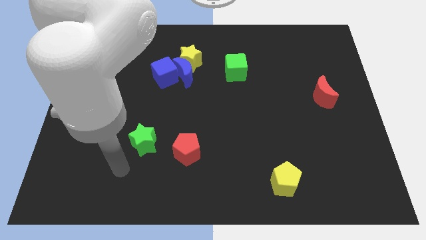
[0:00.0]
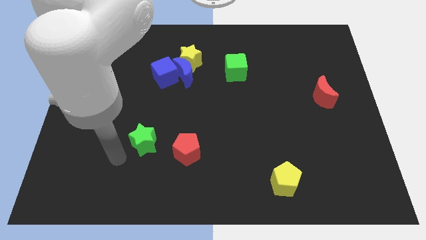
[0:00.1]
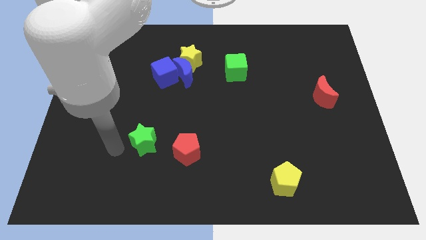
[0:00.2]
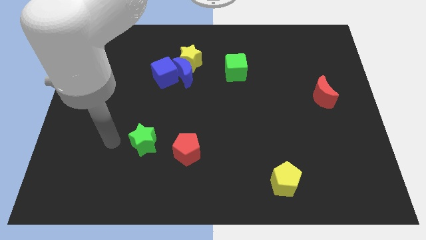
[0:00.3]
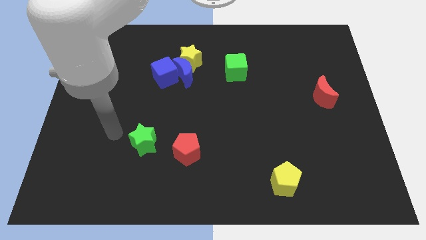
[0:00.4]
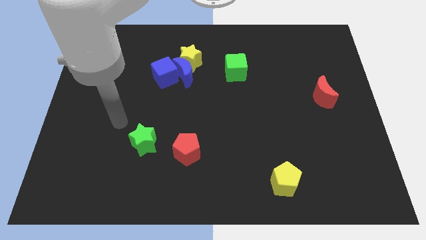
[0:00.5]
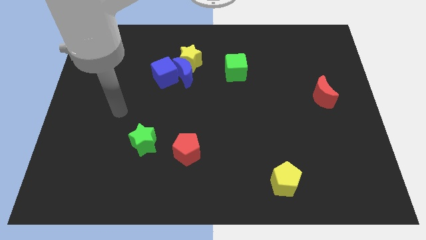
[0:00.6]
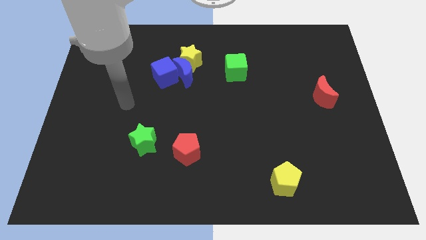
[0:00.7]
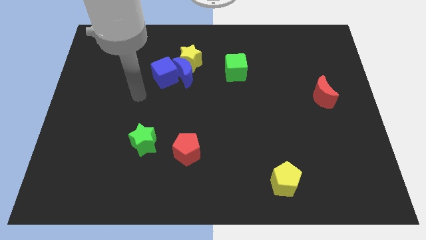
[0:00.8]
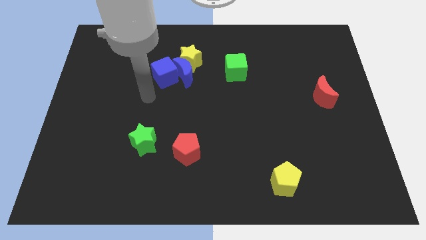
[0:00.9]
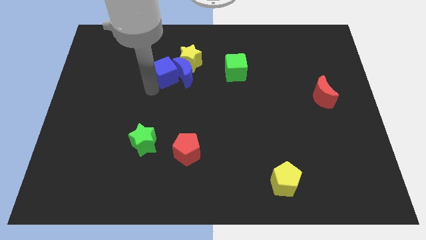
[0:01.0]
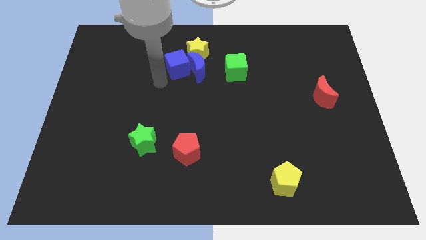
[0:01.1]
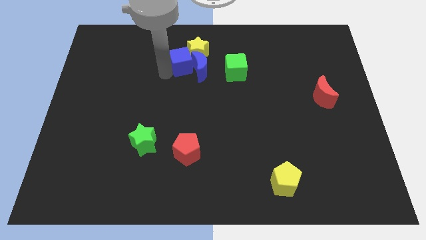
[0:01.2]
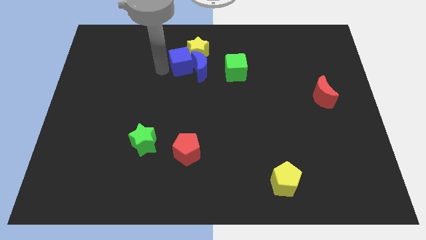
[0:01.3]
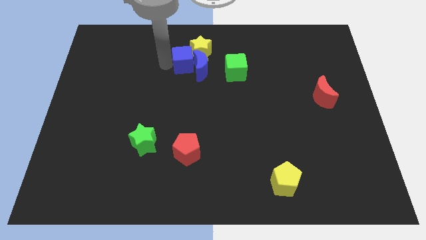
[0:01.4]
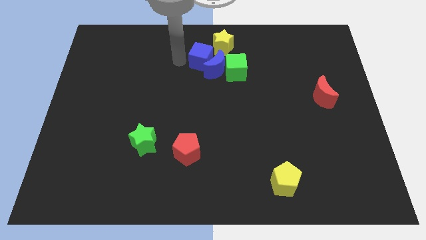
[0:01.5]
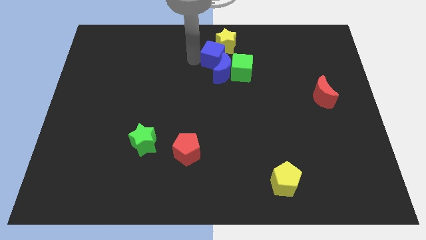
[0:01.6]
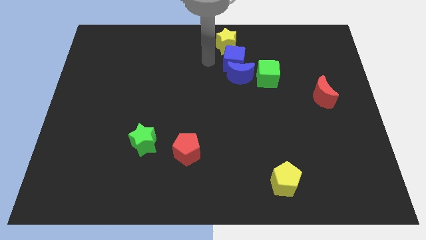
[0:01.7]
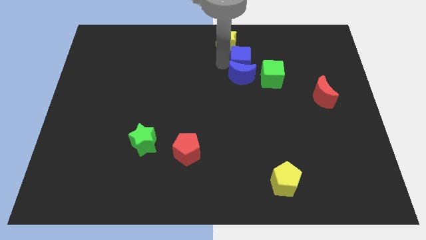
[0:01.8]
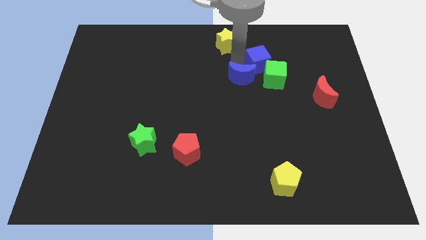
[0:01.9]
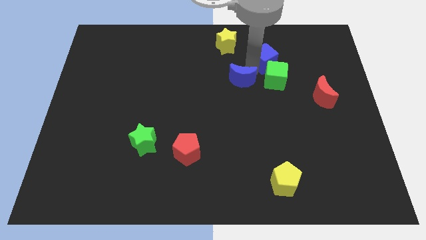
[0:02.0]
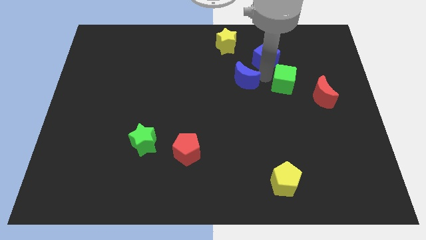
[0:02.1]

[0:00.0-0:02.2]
move the blue moon away from the blue cube and yellow star

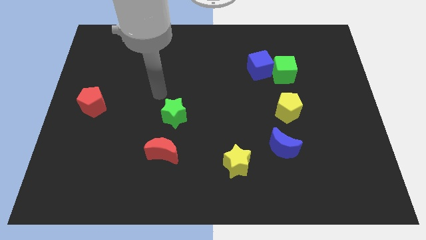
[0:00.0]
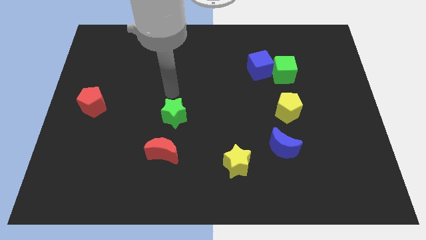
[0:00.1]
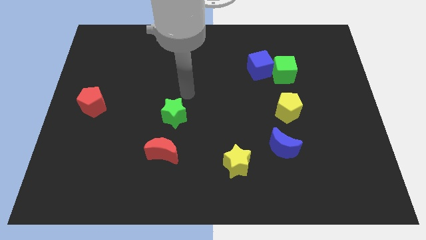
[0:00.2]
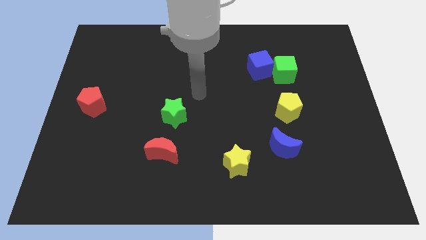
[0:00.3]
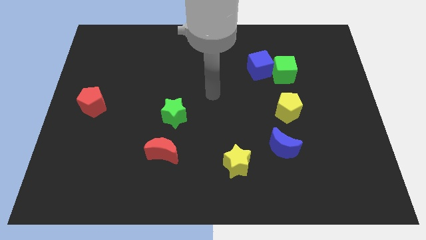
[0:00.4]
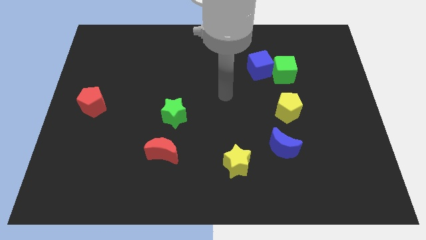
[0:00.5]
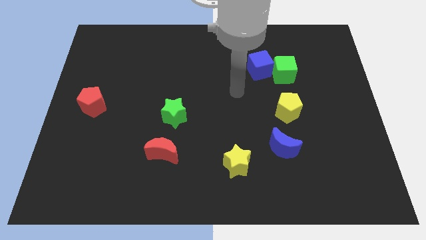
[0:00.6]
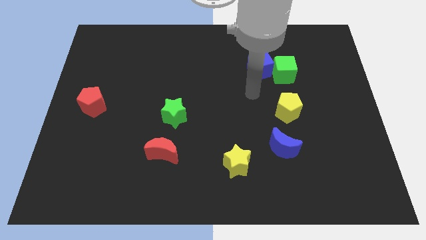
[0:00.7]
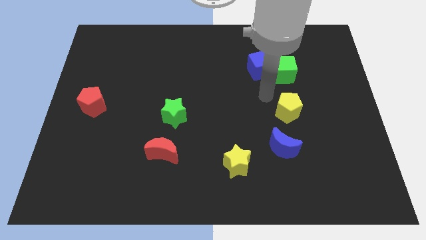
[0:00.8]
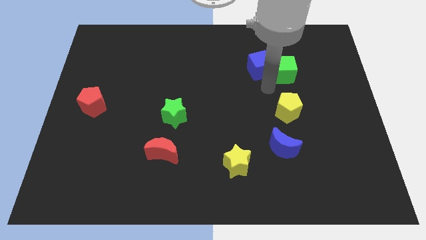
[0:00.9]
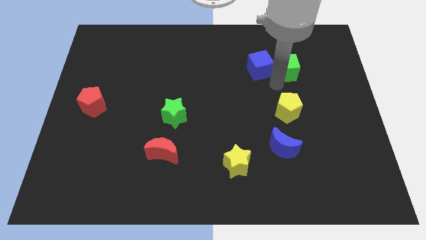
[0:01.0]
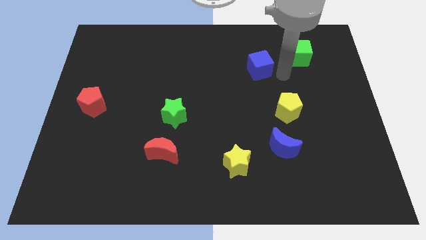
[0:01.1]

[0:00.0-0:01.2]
pull the blue cube apart from the green cube

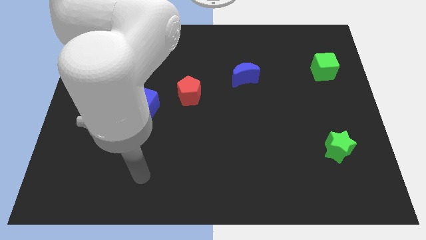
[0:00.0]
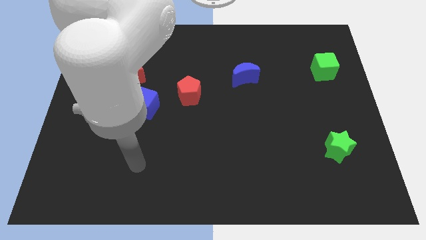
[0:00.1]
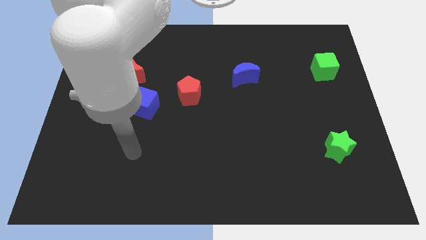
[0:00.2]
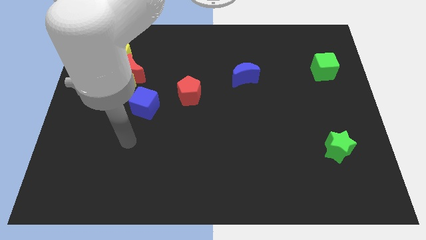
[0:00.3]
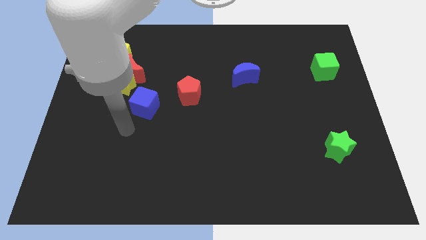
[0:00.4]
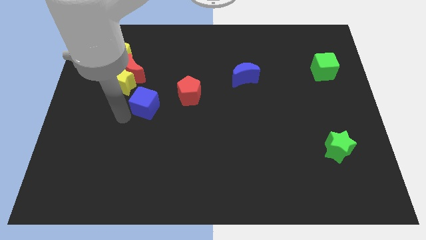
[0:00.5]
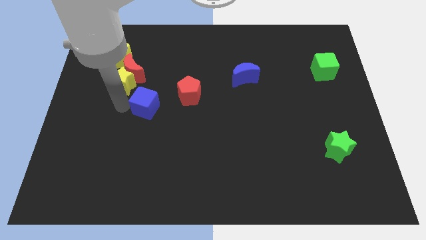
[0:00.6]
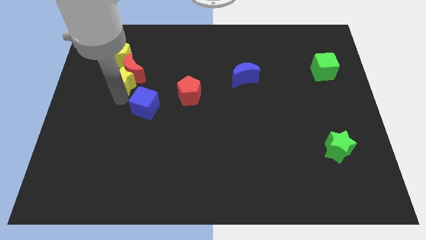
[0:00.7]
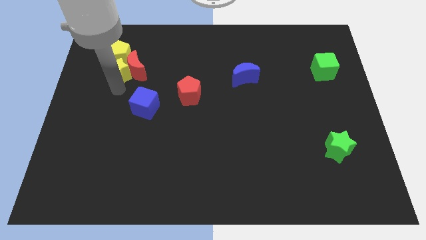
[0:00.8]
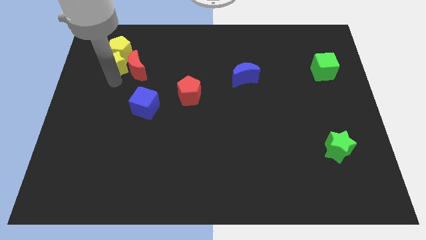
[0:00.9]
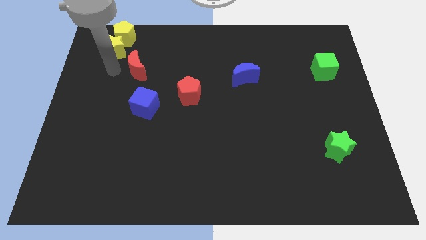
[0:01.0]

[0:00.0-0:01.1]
move the red moon away from the yellow star and yellow pentagon

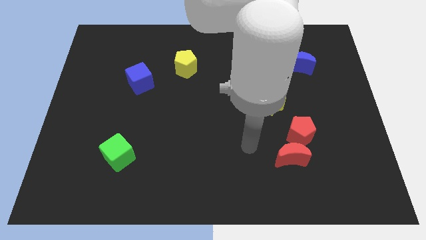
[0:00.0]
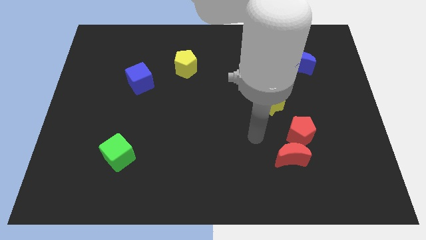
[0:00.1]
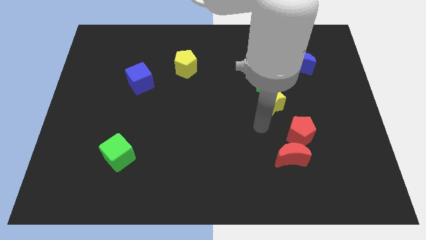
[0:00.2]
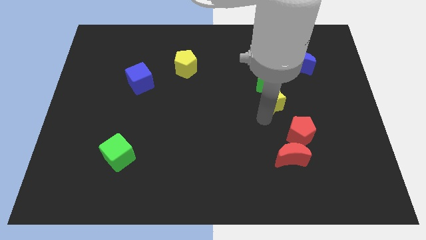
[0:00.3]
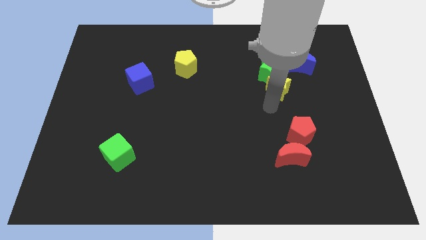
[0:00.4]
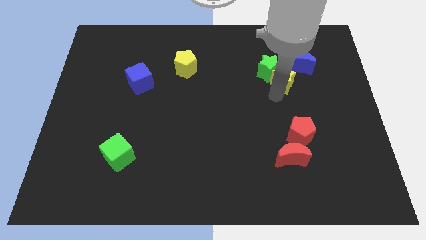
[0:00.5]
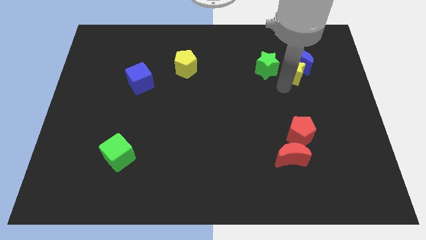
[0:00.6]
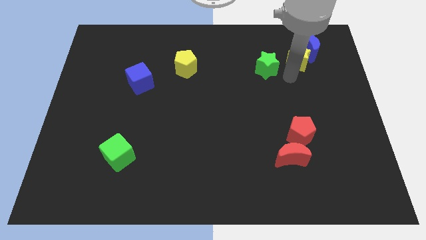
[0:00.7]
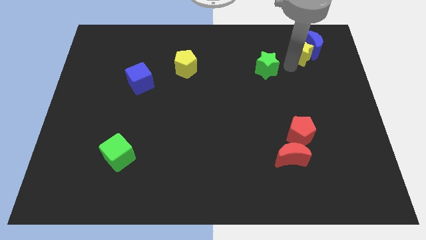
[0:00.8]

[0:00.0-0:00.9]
move the green star away from the yellow star

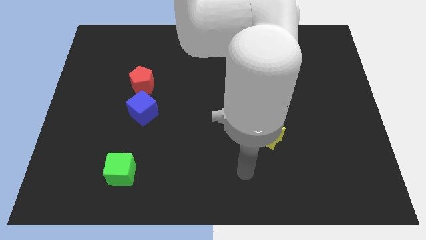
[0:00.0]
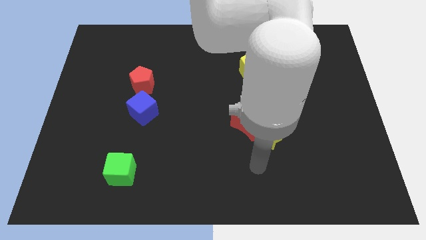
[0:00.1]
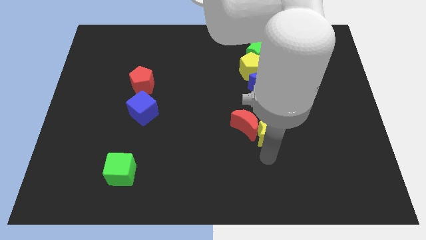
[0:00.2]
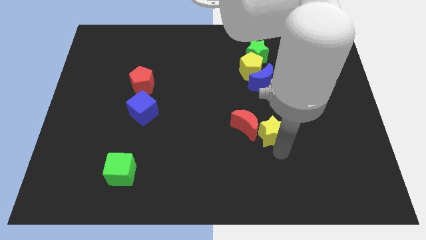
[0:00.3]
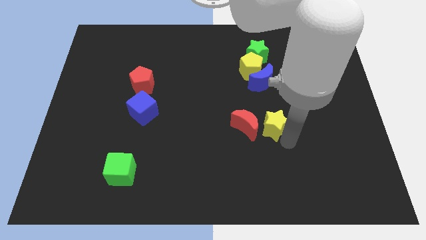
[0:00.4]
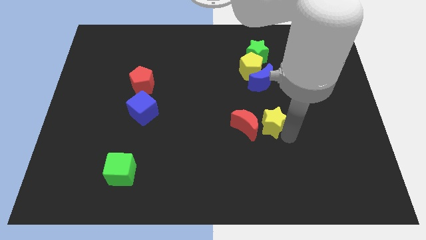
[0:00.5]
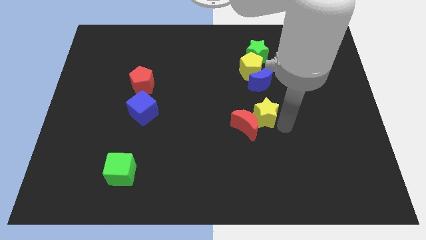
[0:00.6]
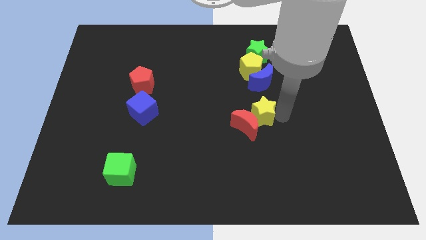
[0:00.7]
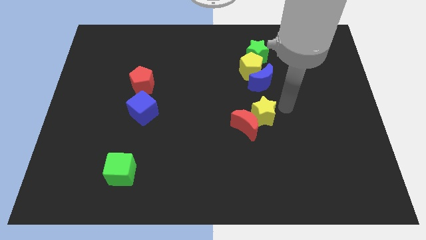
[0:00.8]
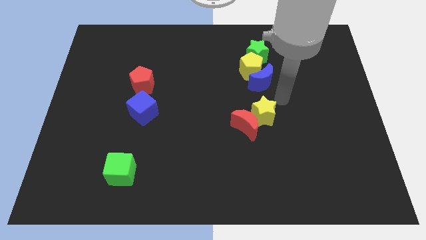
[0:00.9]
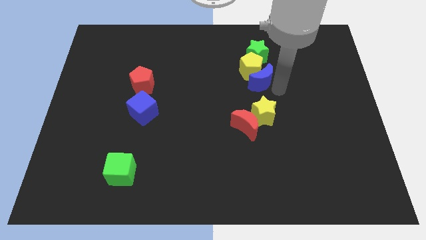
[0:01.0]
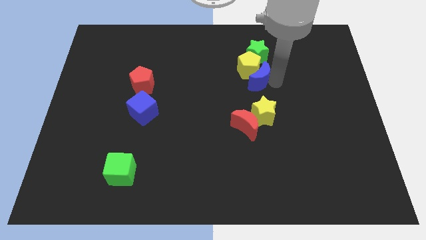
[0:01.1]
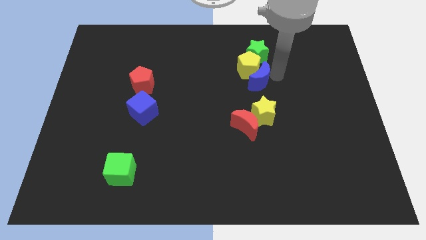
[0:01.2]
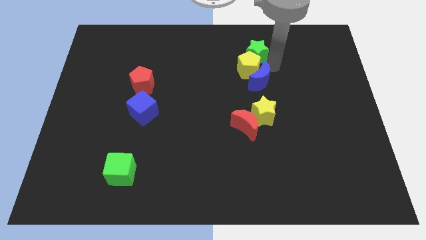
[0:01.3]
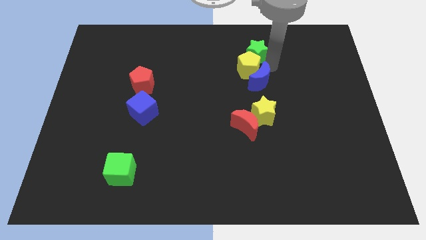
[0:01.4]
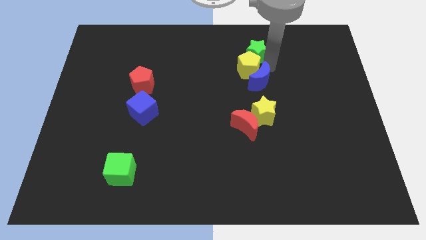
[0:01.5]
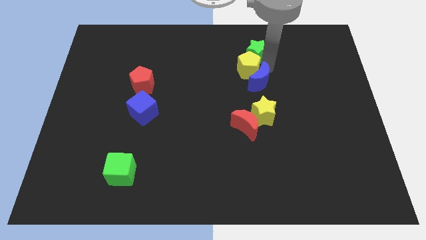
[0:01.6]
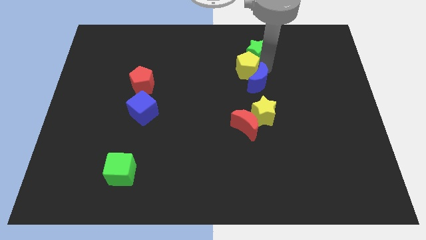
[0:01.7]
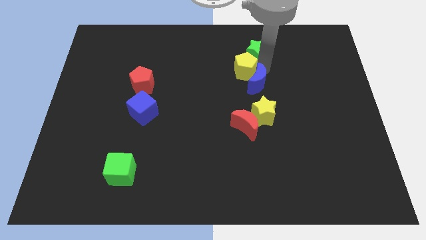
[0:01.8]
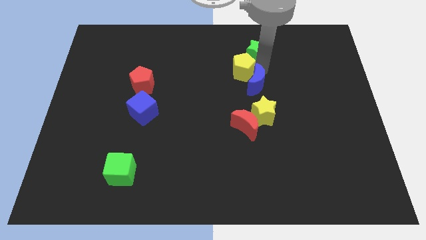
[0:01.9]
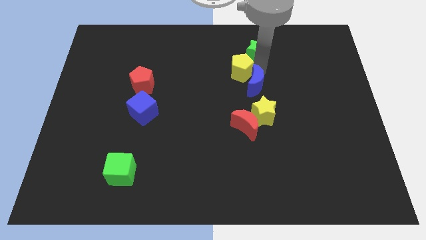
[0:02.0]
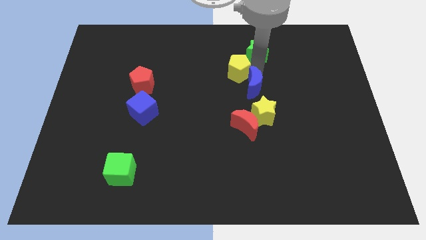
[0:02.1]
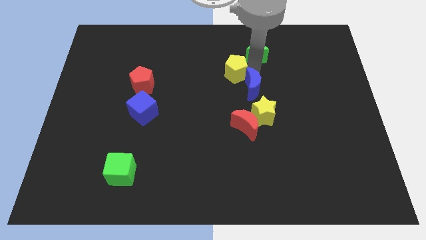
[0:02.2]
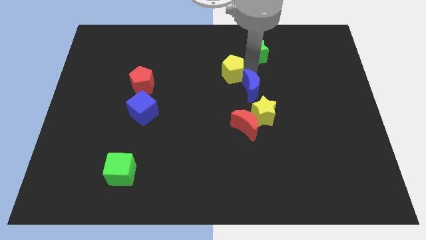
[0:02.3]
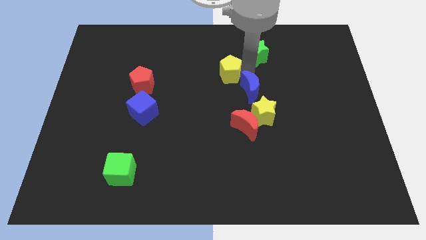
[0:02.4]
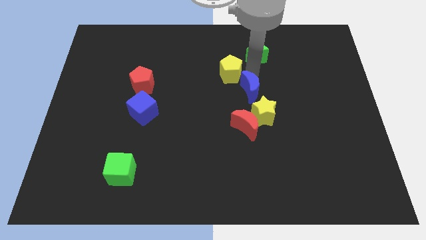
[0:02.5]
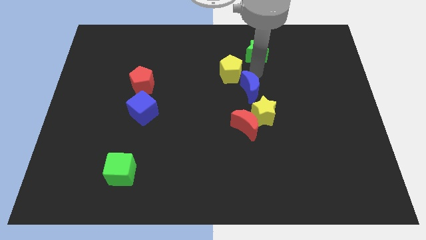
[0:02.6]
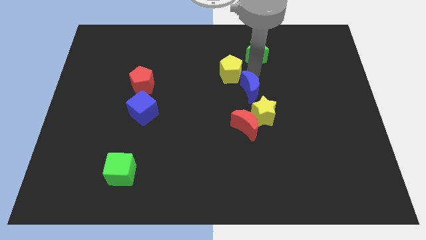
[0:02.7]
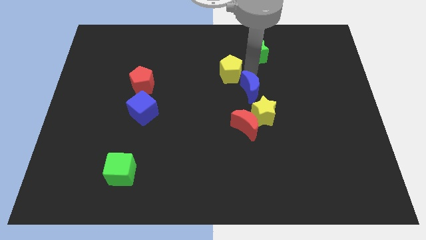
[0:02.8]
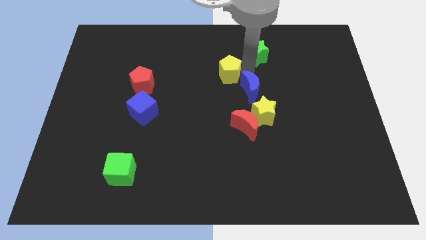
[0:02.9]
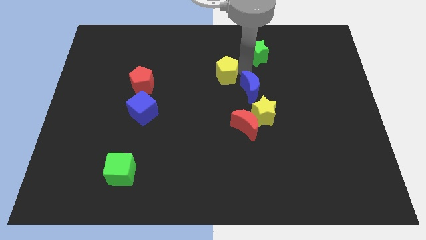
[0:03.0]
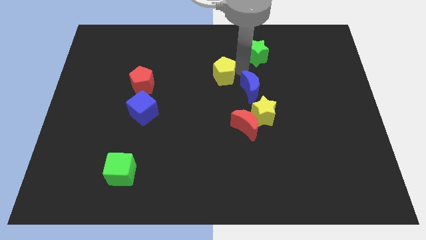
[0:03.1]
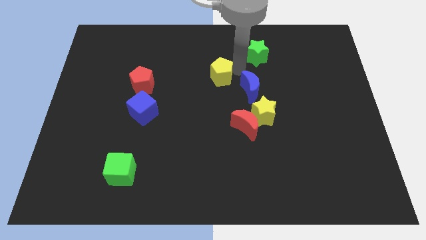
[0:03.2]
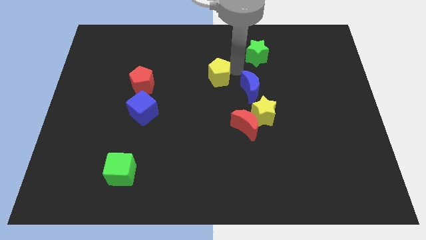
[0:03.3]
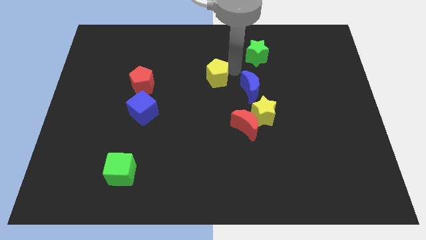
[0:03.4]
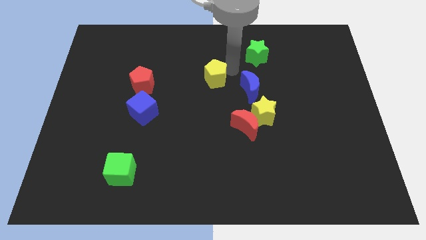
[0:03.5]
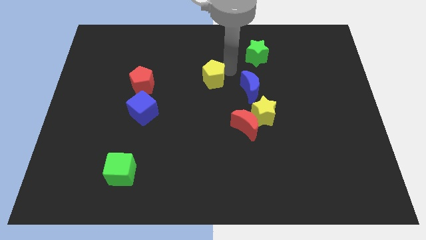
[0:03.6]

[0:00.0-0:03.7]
separate the yellow pentagon from the green star and blue moon

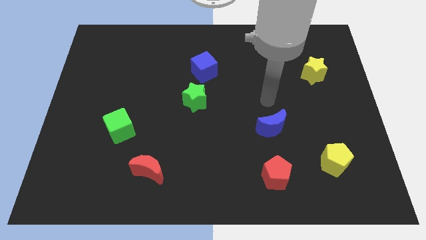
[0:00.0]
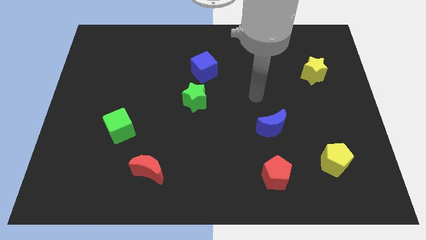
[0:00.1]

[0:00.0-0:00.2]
separate the blue cube from the green star

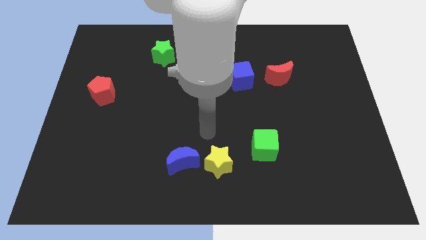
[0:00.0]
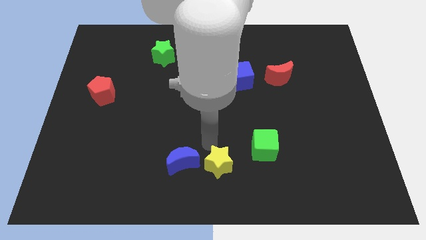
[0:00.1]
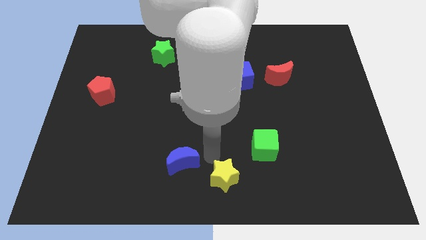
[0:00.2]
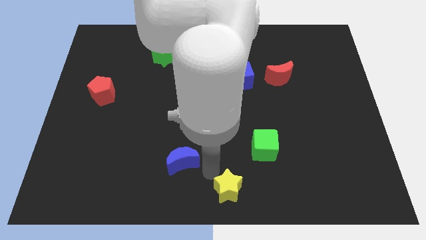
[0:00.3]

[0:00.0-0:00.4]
move the blue moon away from the yellow star
